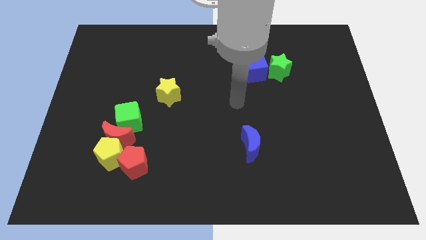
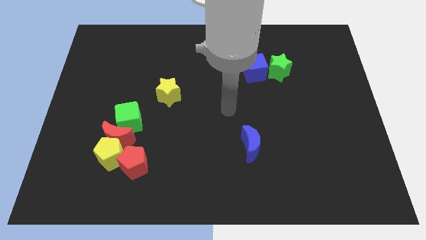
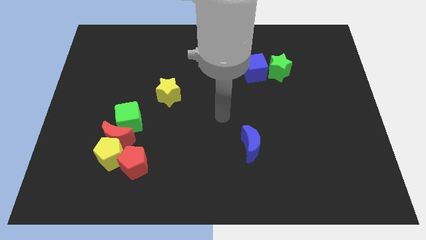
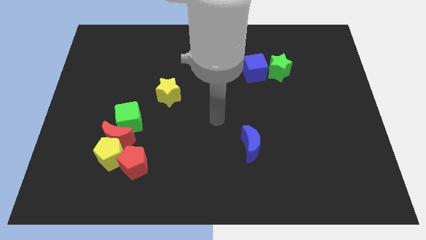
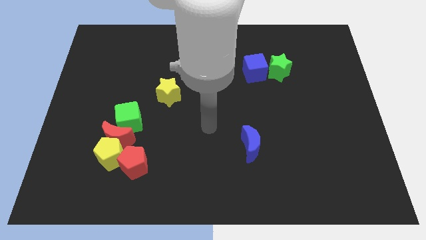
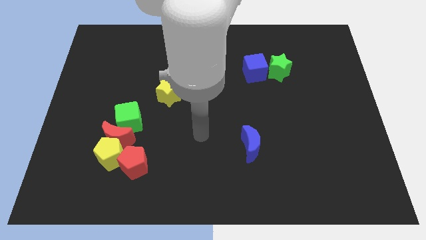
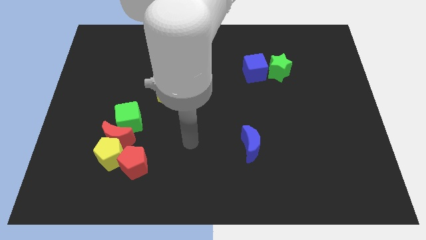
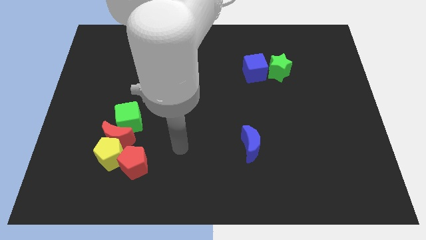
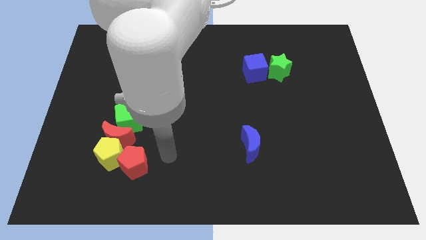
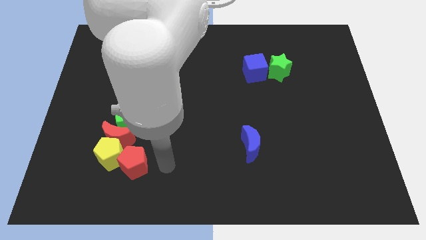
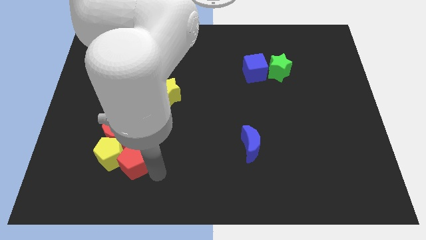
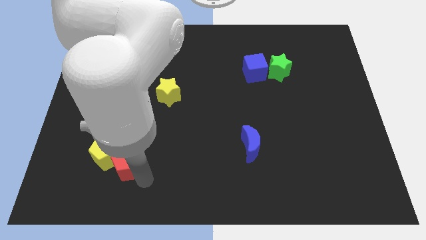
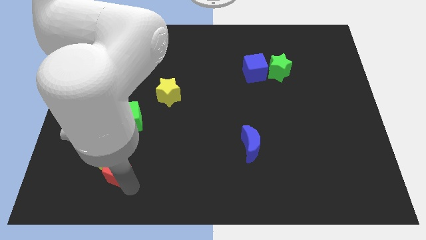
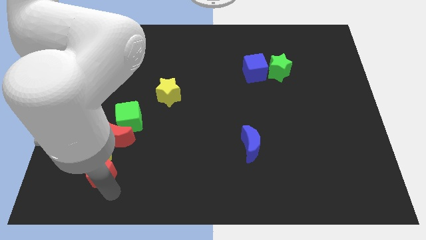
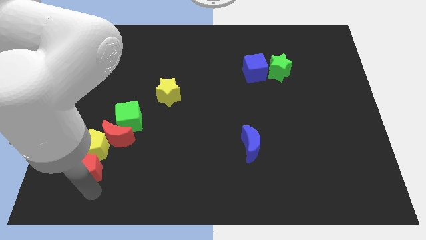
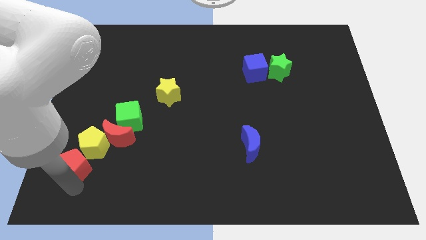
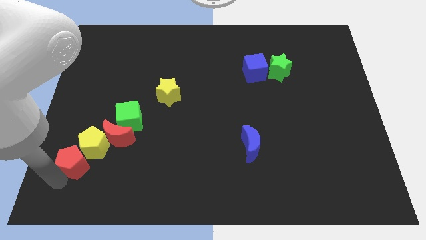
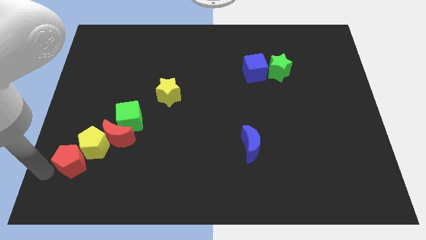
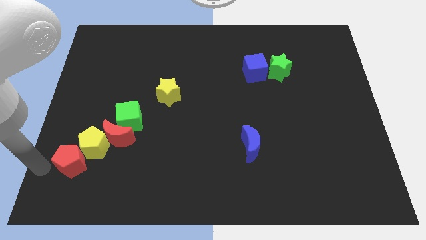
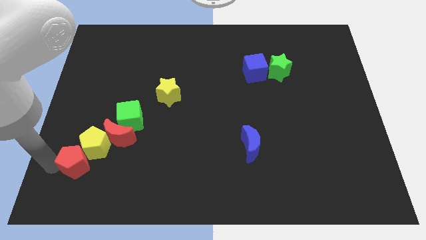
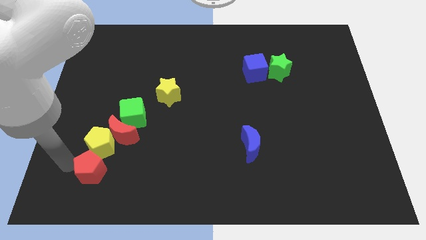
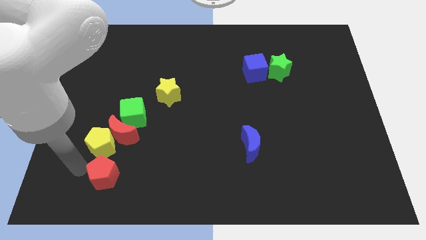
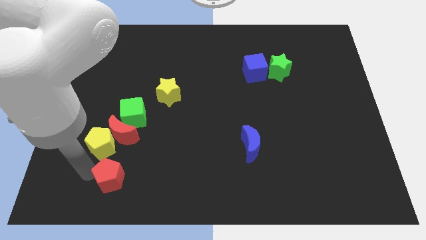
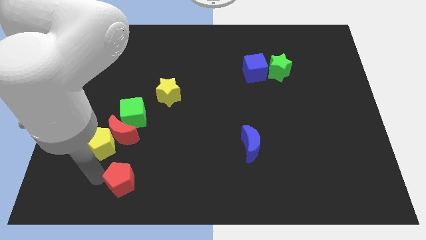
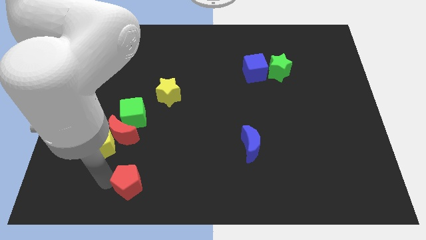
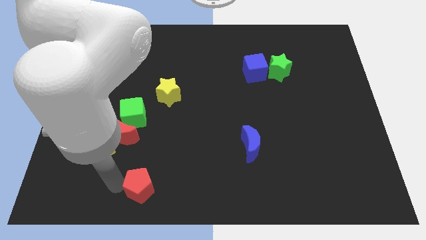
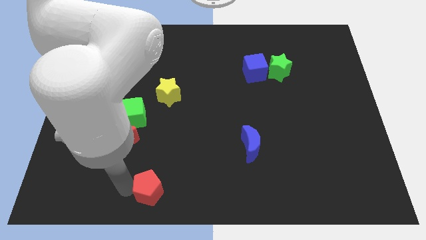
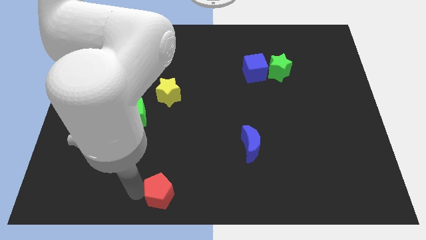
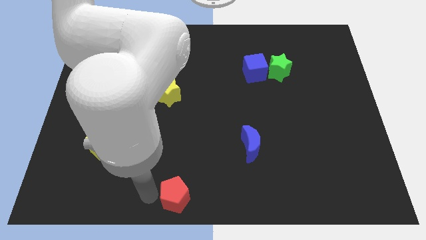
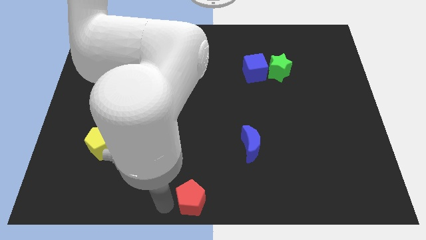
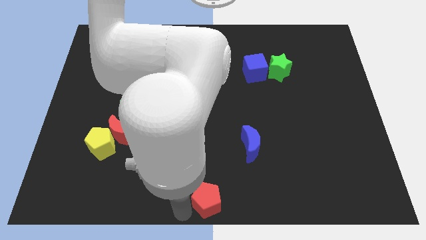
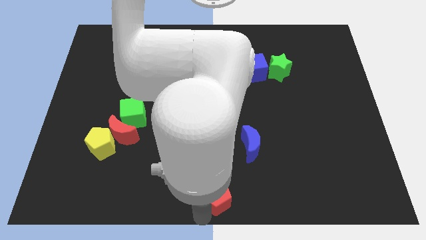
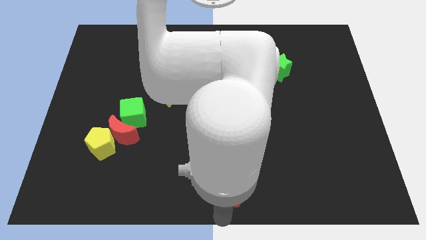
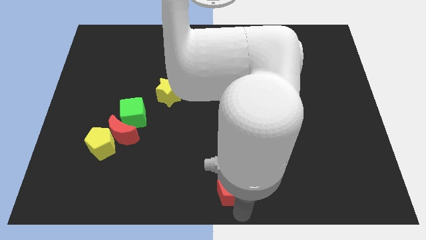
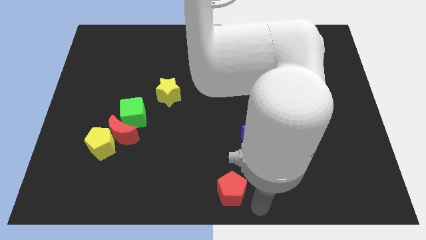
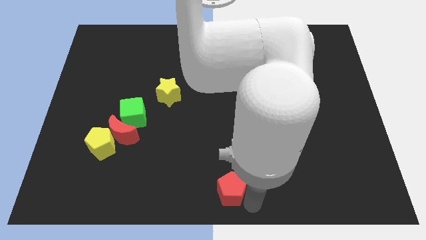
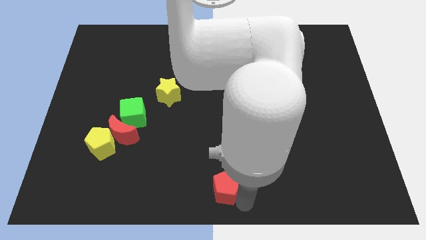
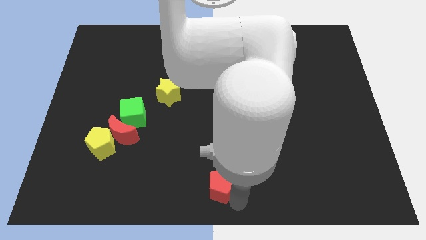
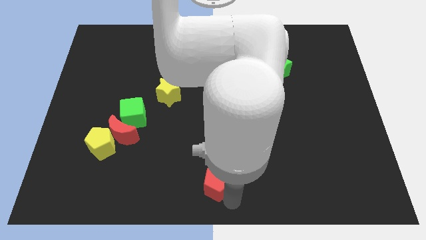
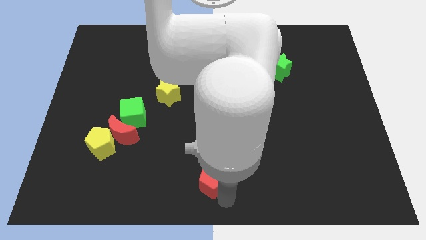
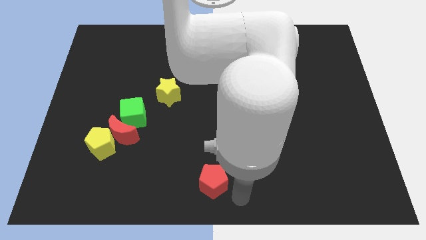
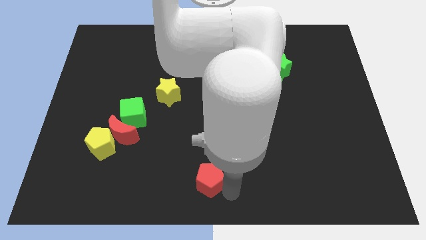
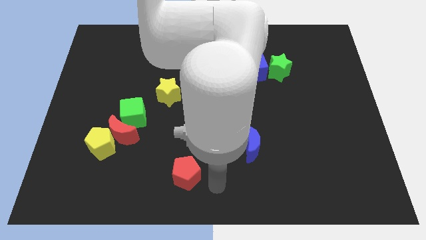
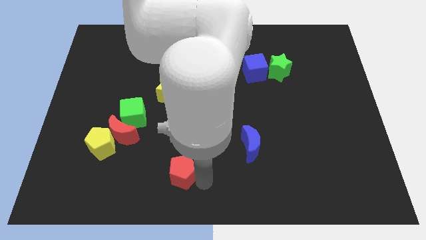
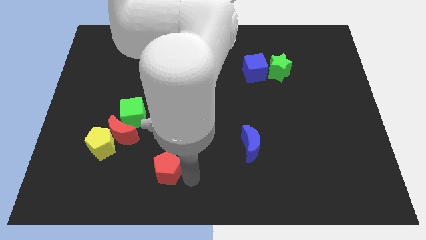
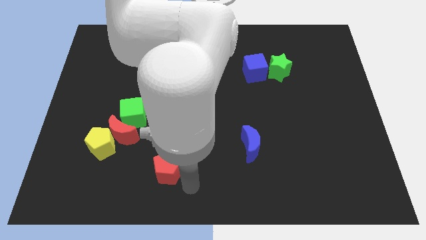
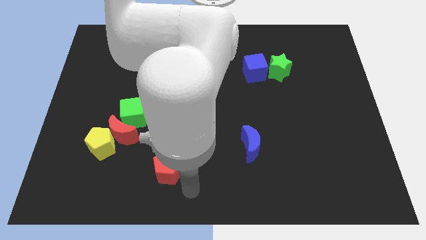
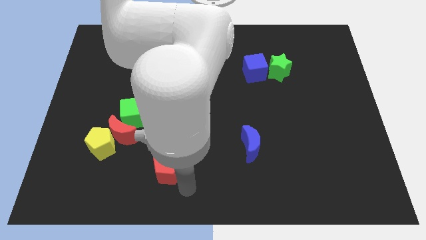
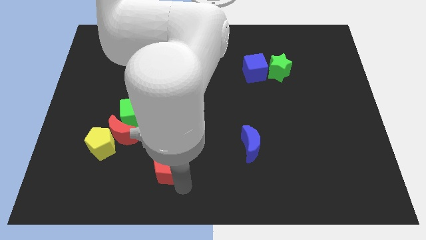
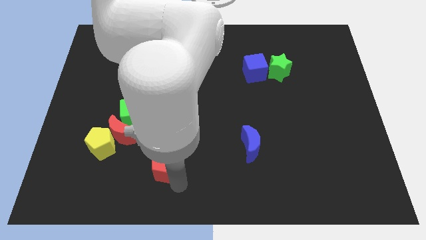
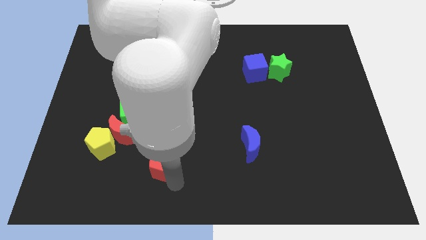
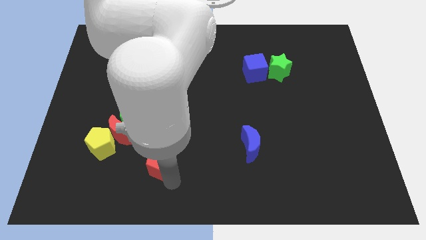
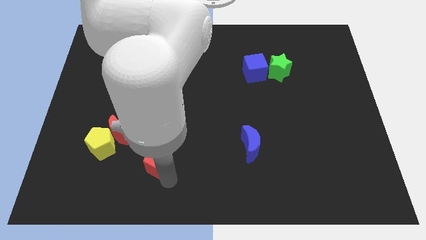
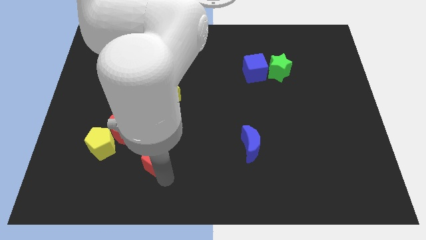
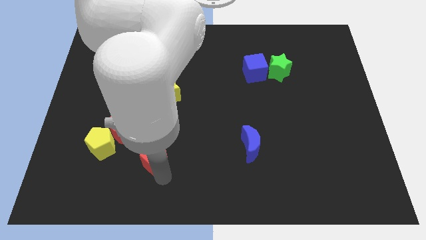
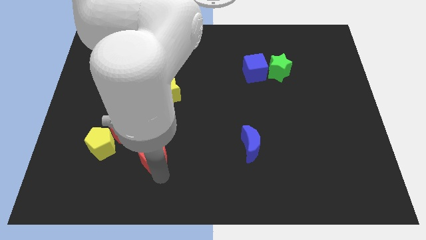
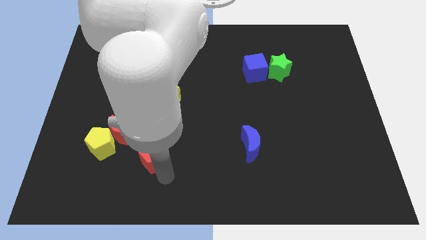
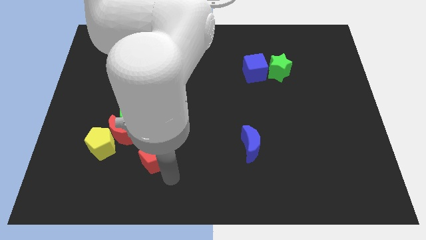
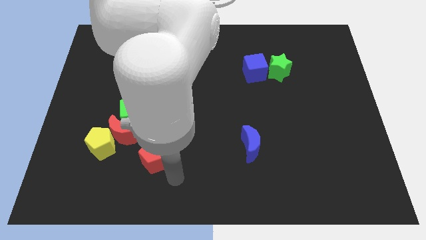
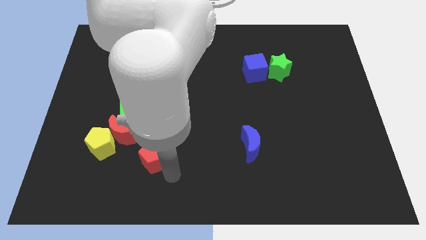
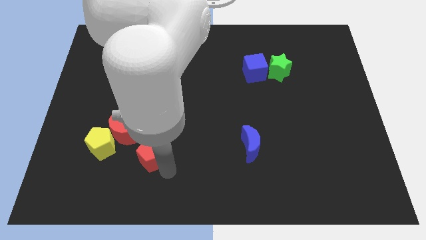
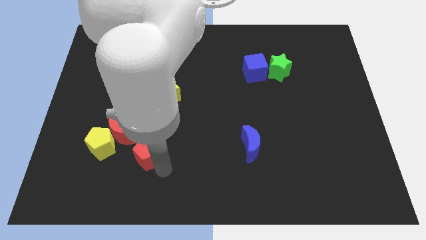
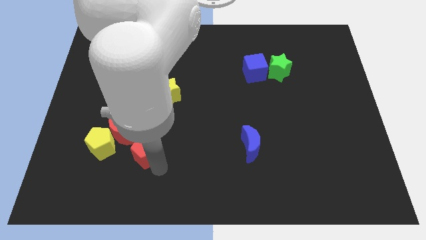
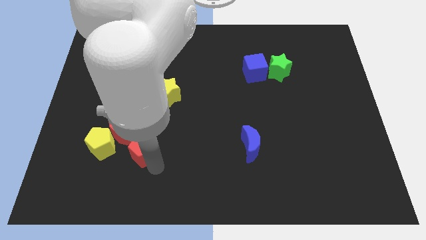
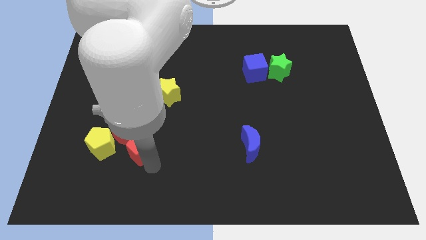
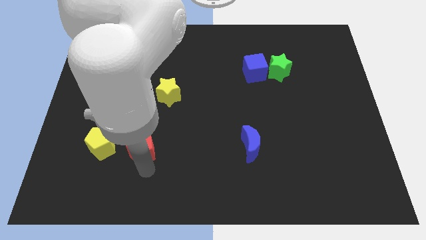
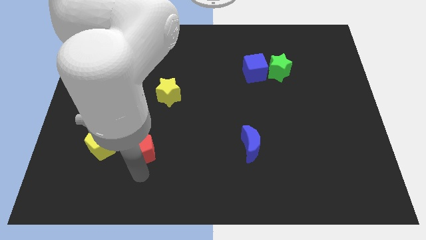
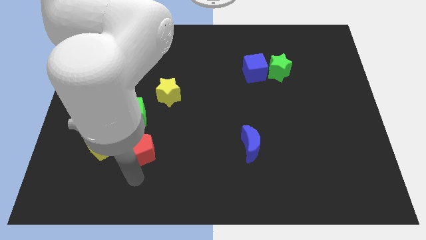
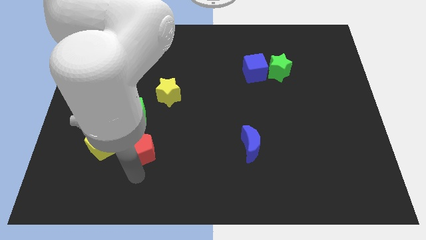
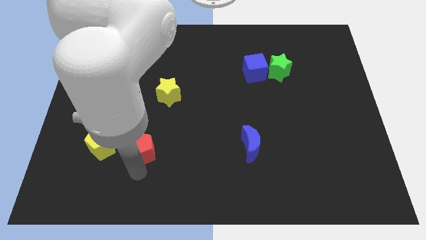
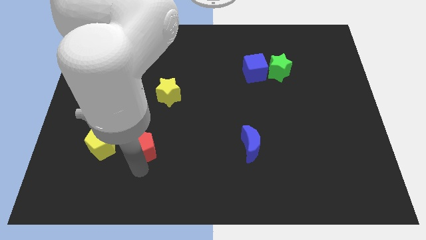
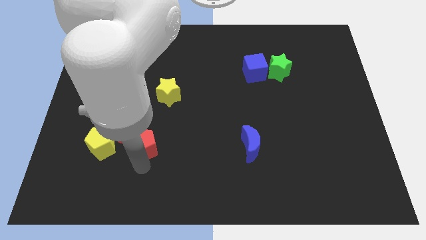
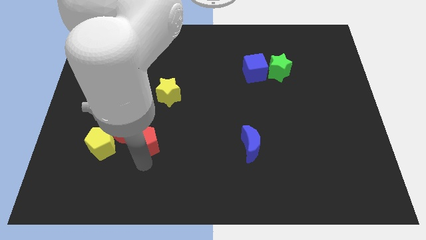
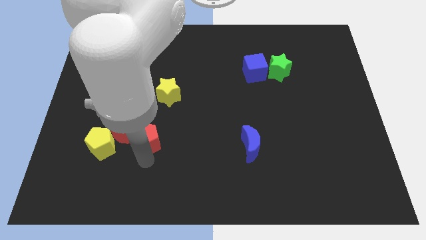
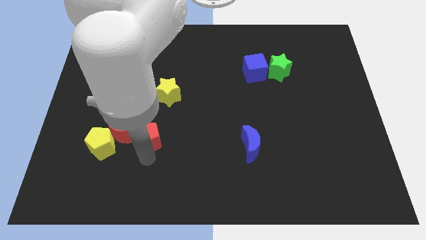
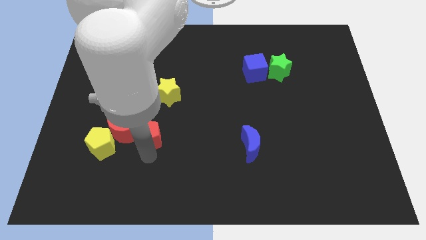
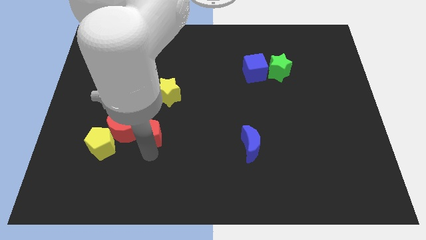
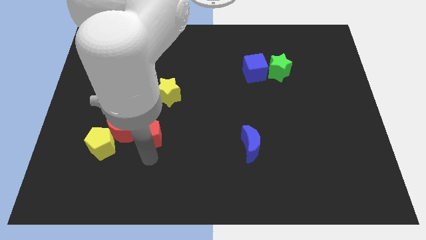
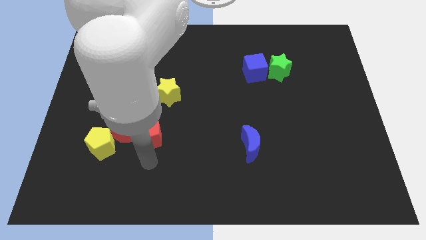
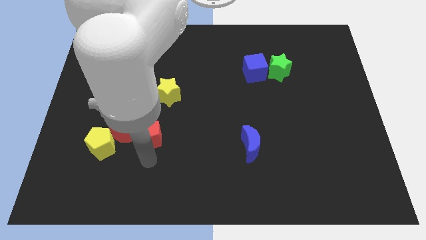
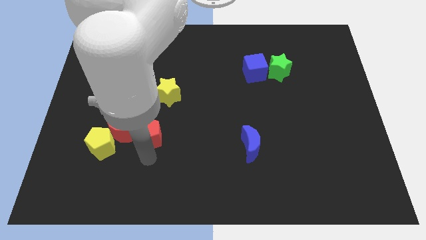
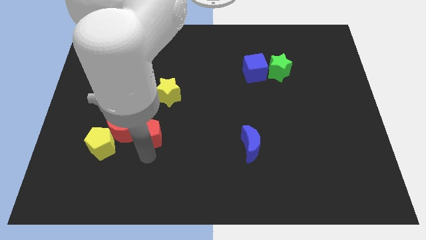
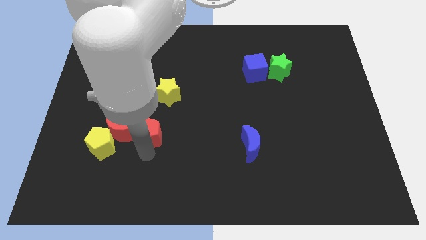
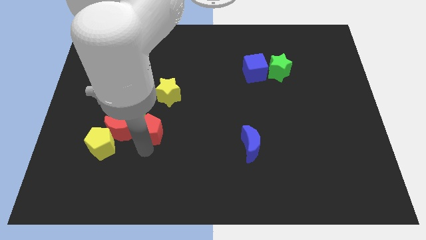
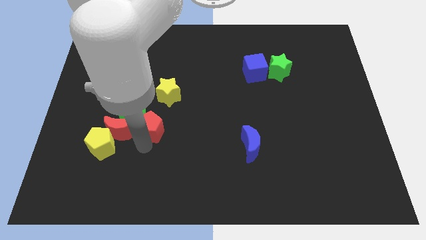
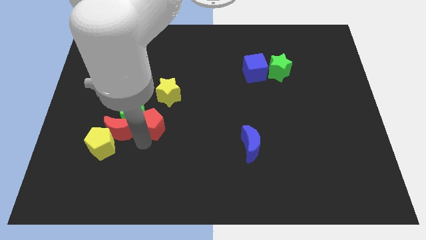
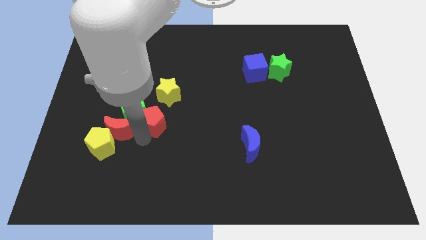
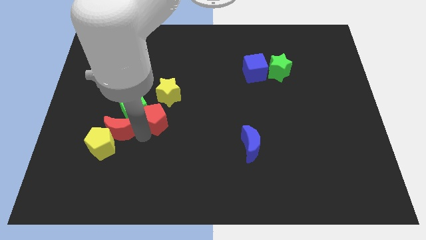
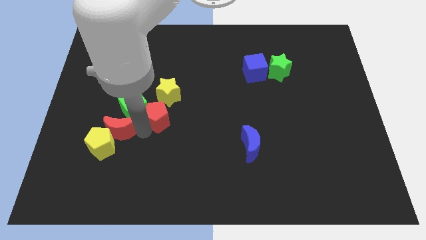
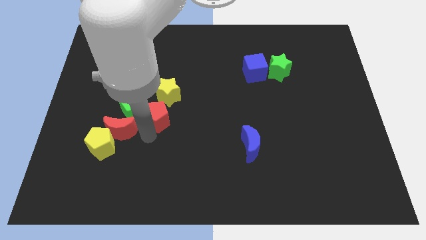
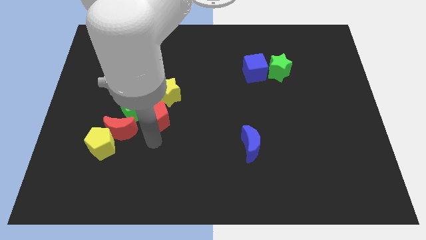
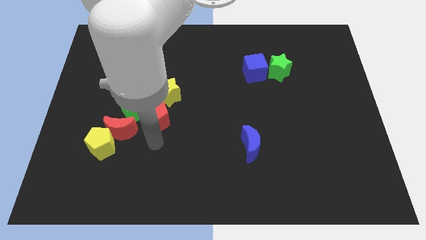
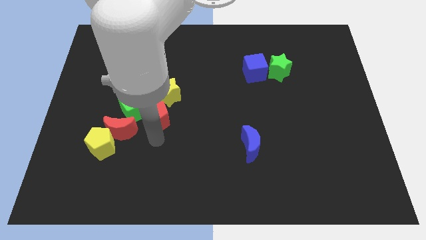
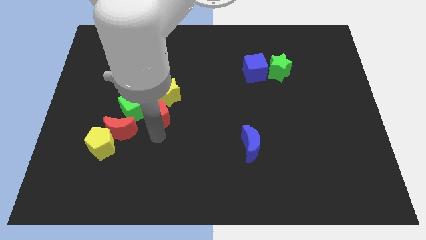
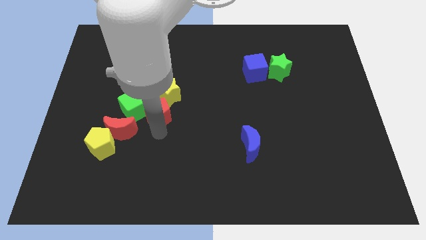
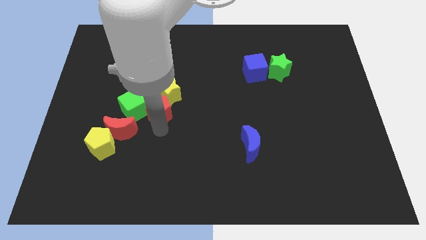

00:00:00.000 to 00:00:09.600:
move the red pentagon to the top right of the green cube
